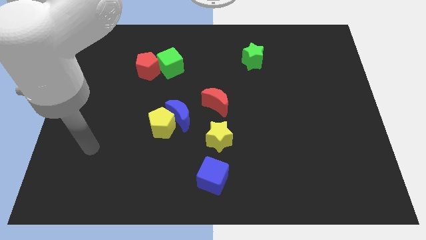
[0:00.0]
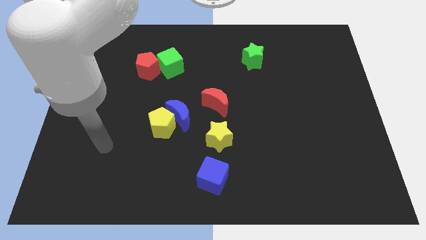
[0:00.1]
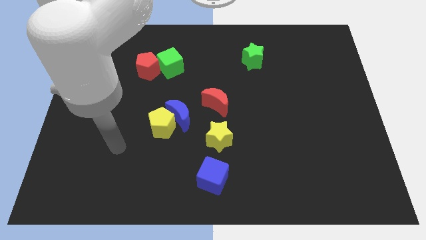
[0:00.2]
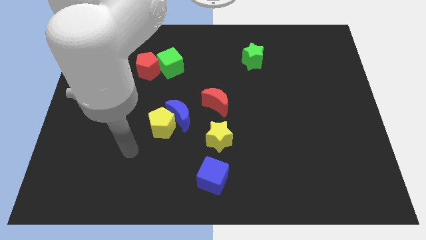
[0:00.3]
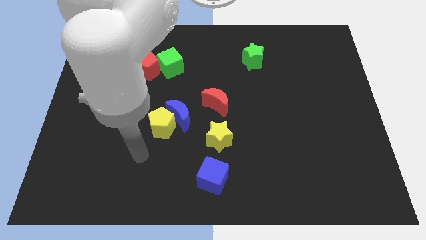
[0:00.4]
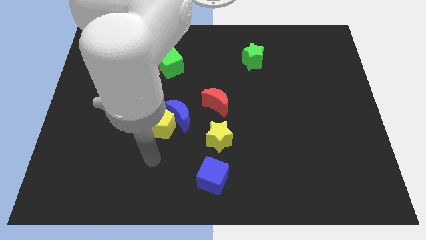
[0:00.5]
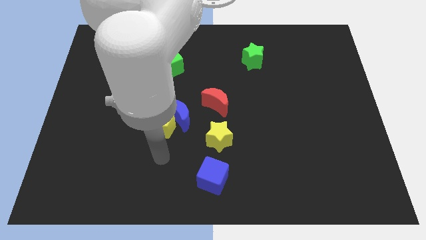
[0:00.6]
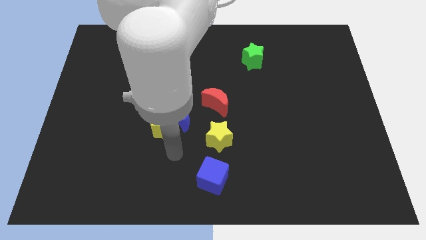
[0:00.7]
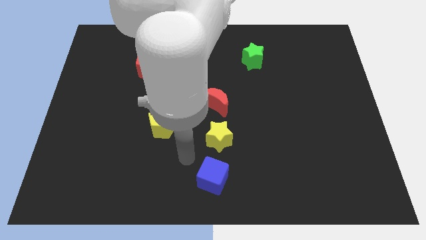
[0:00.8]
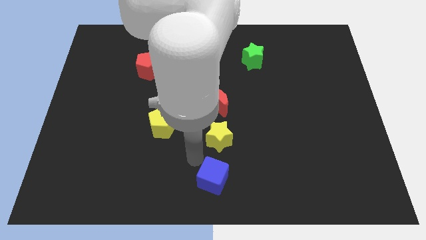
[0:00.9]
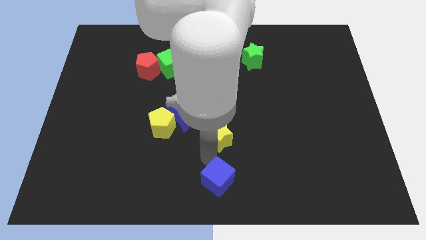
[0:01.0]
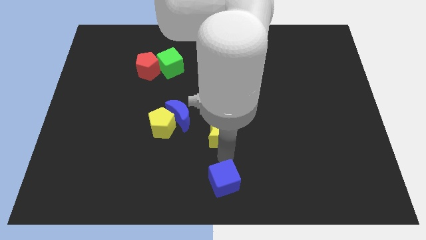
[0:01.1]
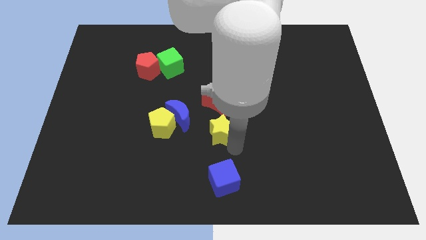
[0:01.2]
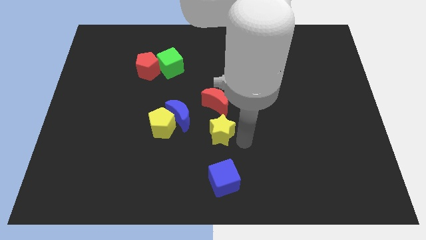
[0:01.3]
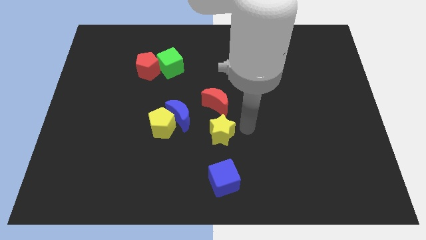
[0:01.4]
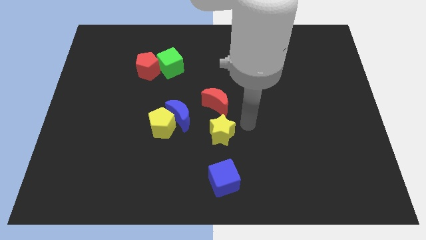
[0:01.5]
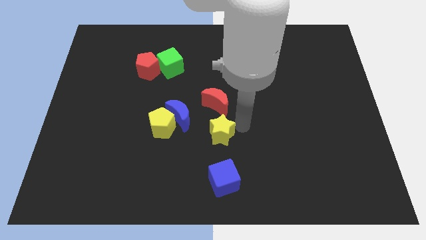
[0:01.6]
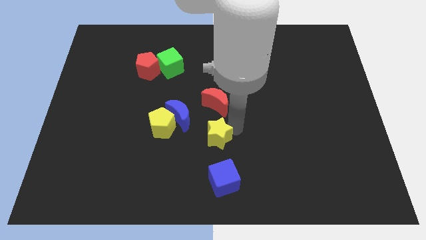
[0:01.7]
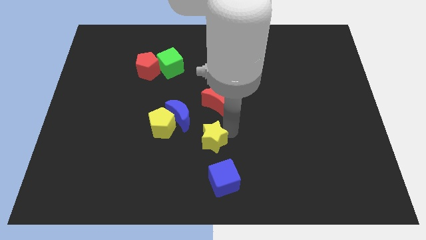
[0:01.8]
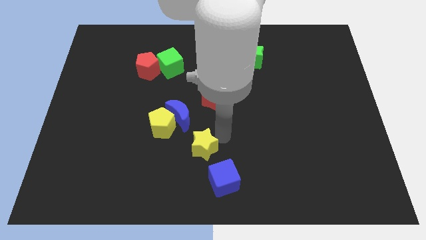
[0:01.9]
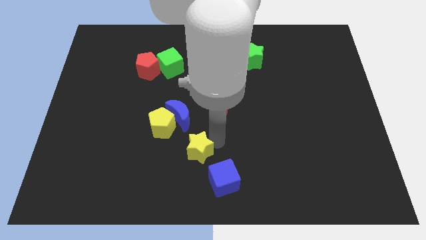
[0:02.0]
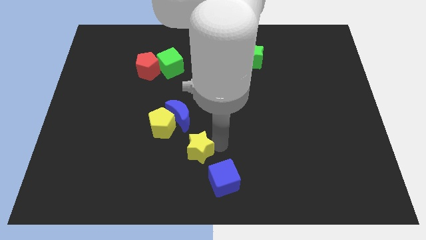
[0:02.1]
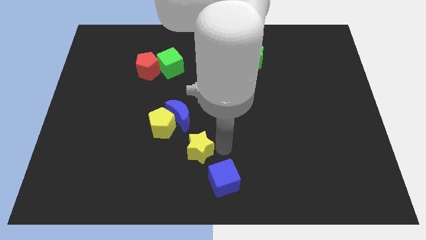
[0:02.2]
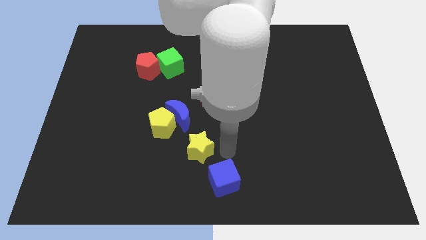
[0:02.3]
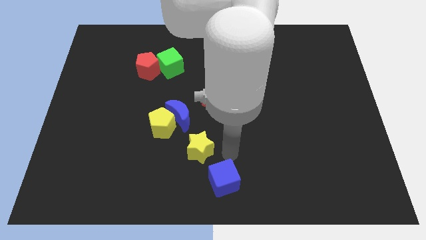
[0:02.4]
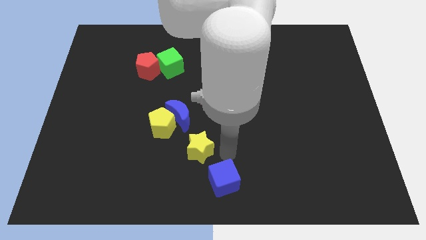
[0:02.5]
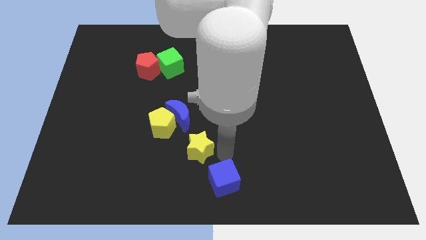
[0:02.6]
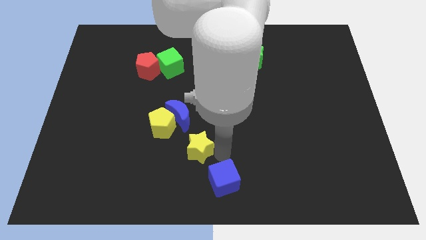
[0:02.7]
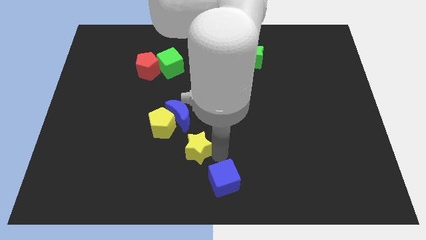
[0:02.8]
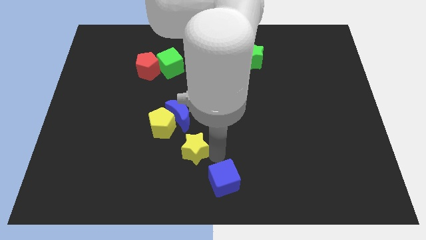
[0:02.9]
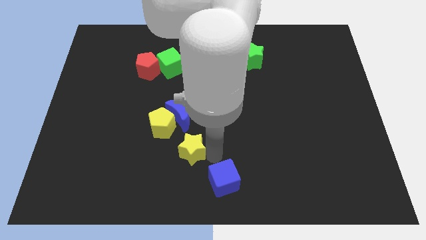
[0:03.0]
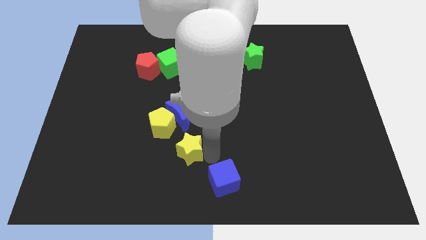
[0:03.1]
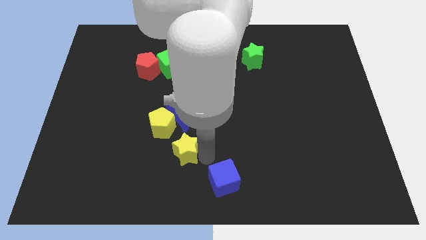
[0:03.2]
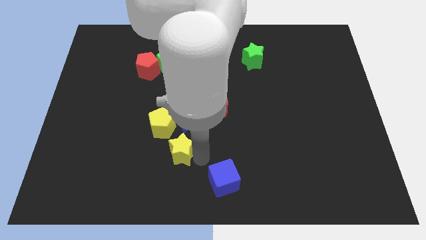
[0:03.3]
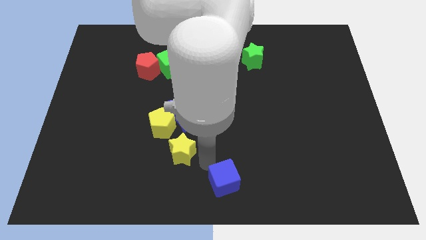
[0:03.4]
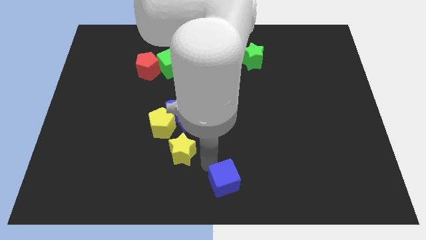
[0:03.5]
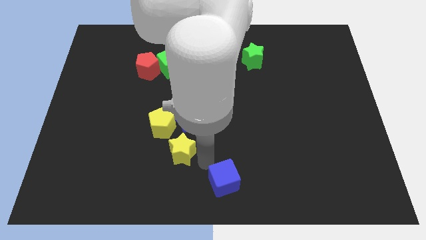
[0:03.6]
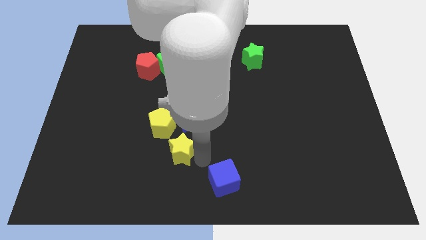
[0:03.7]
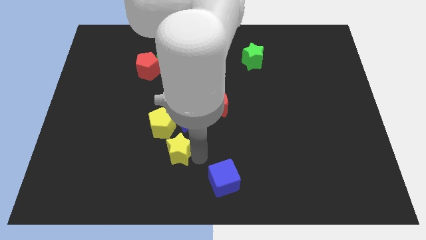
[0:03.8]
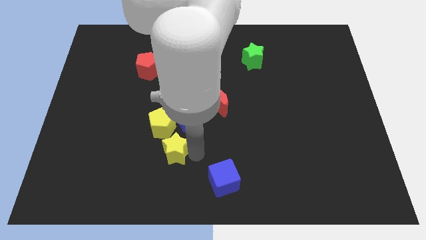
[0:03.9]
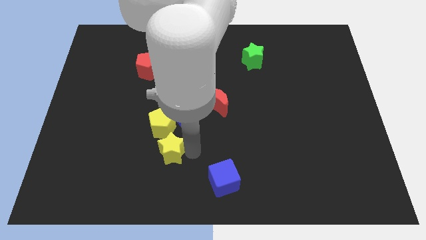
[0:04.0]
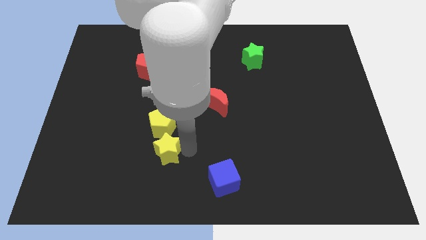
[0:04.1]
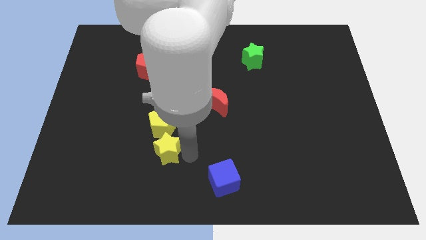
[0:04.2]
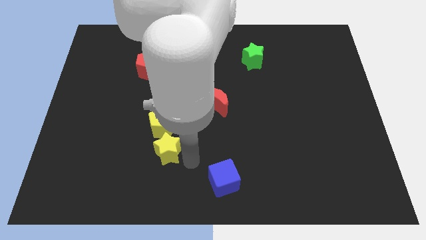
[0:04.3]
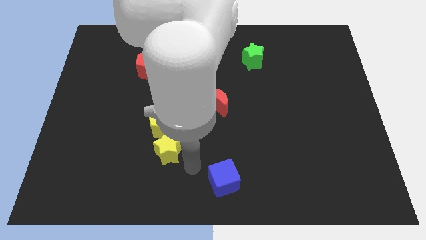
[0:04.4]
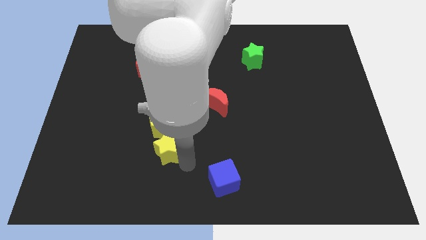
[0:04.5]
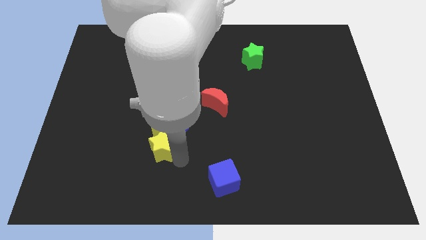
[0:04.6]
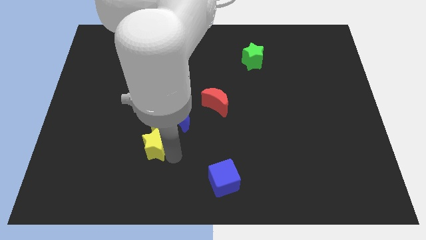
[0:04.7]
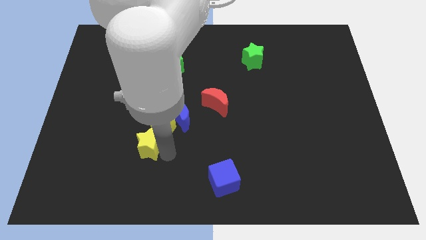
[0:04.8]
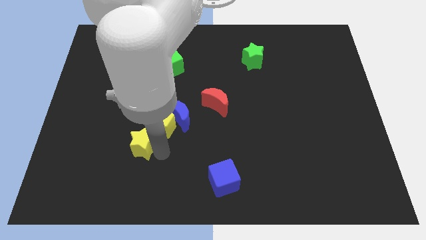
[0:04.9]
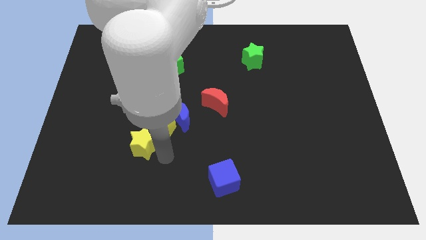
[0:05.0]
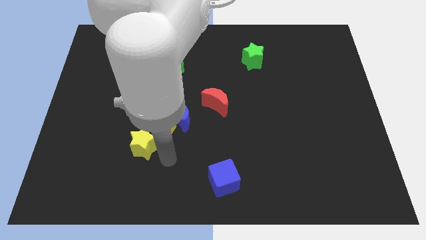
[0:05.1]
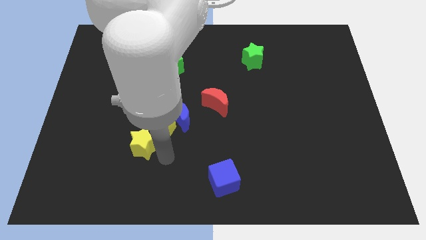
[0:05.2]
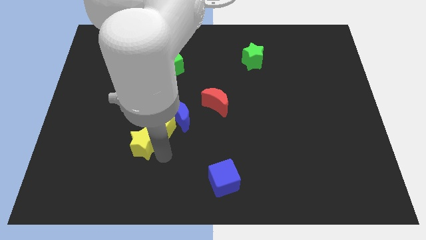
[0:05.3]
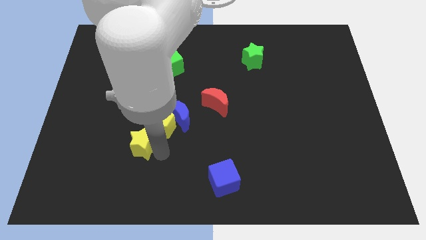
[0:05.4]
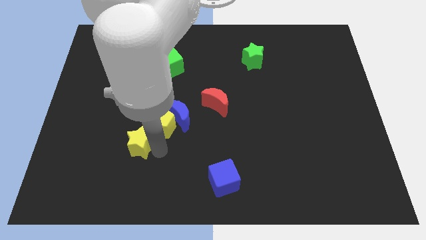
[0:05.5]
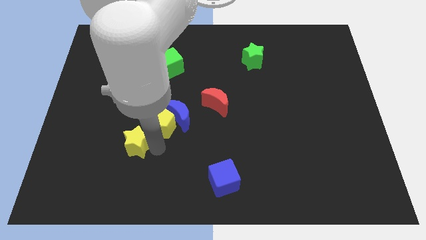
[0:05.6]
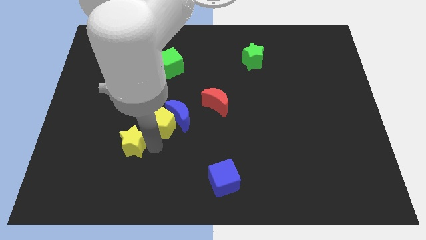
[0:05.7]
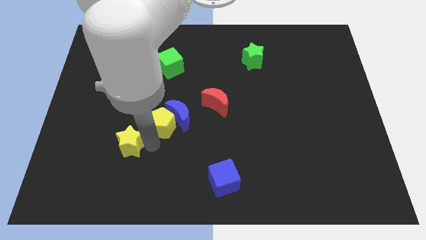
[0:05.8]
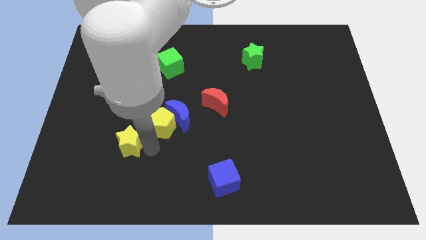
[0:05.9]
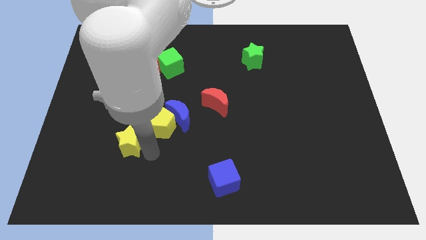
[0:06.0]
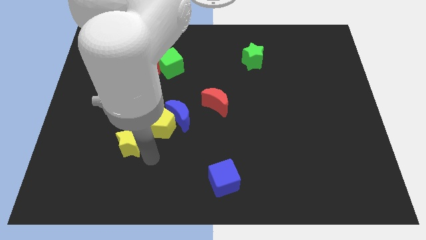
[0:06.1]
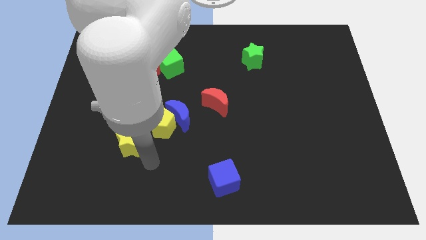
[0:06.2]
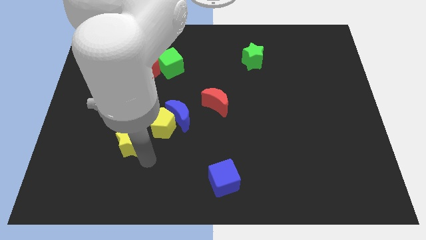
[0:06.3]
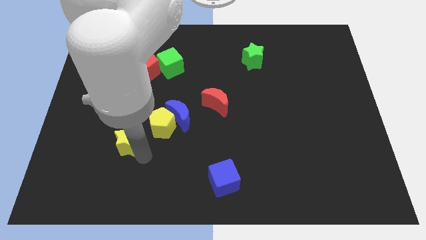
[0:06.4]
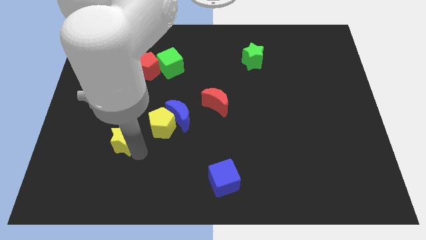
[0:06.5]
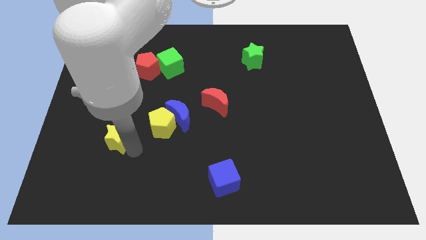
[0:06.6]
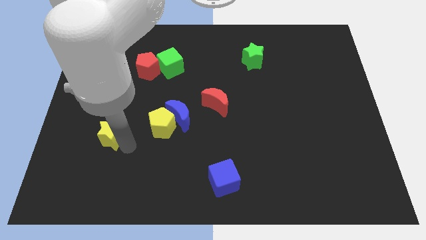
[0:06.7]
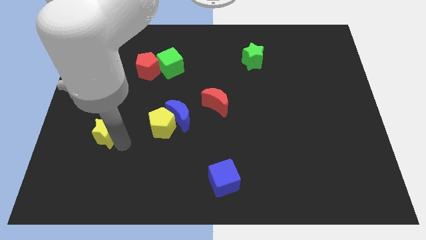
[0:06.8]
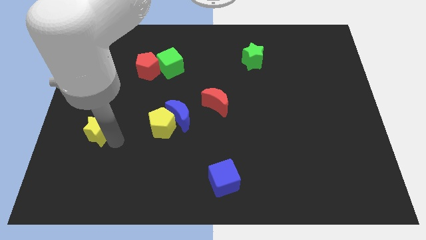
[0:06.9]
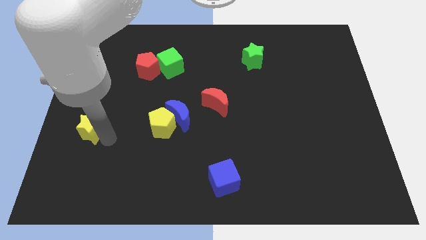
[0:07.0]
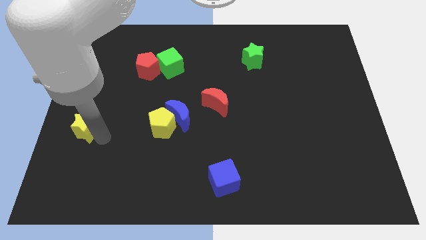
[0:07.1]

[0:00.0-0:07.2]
put the yellow star to the left side
